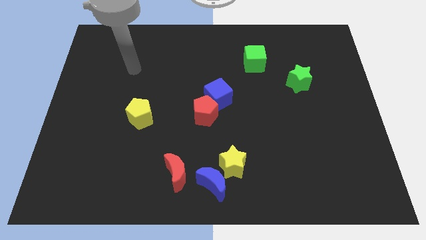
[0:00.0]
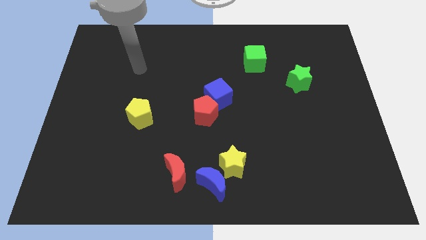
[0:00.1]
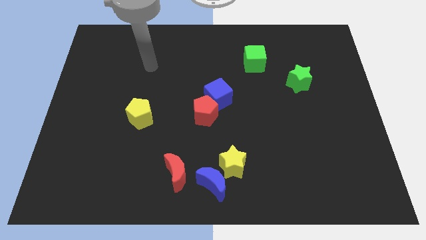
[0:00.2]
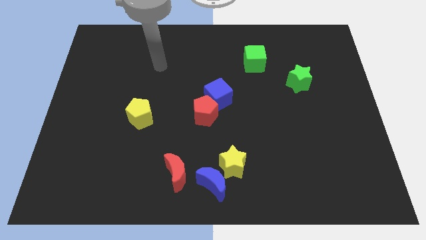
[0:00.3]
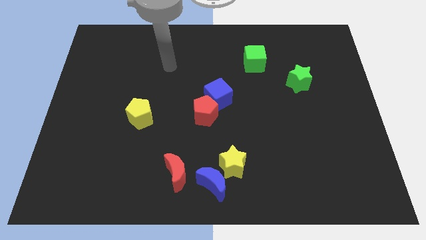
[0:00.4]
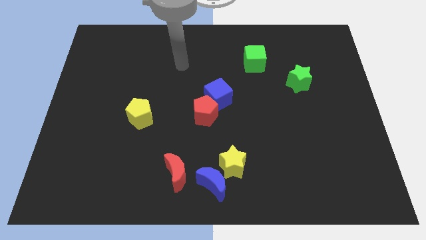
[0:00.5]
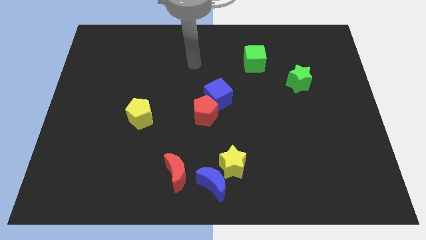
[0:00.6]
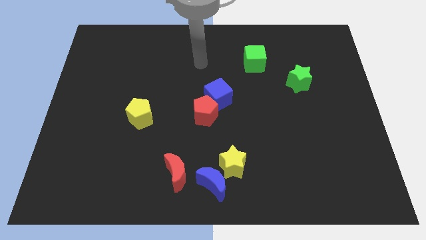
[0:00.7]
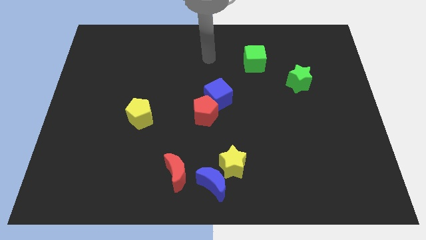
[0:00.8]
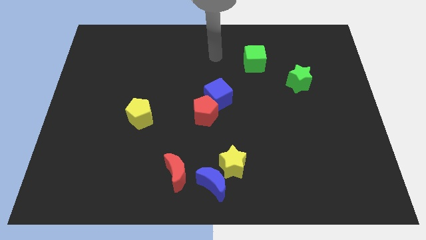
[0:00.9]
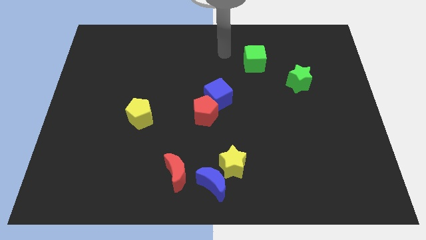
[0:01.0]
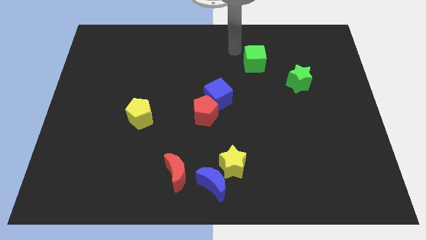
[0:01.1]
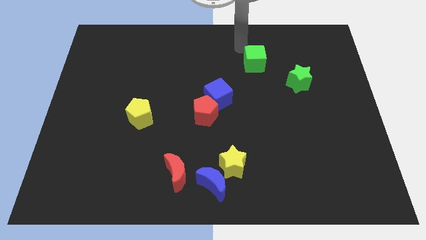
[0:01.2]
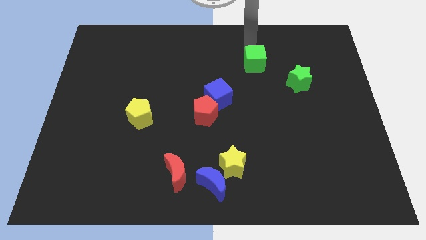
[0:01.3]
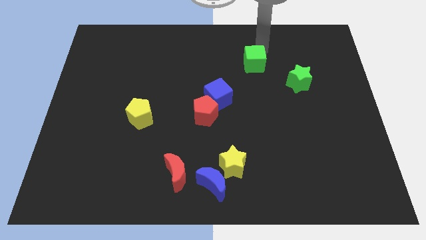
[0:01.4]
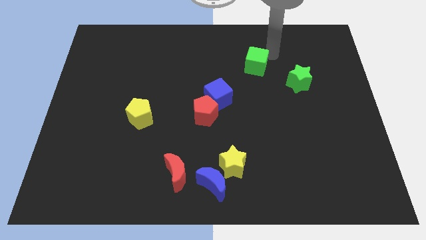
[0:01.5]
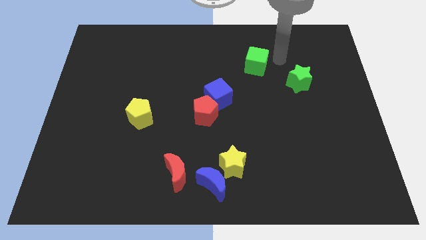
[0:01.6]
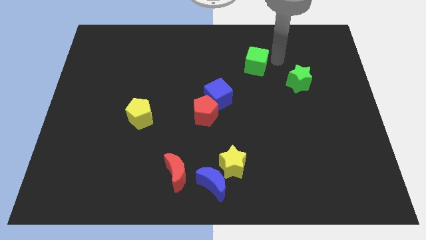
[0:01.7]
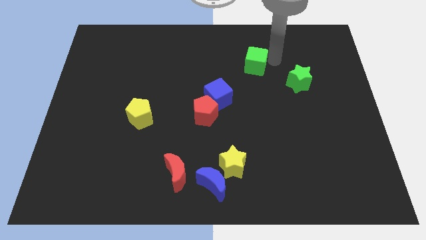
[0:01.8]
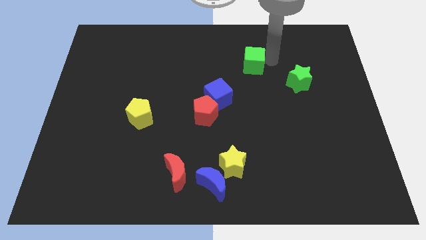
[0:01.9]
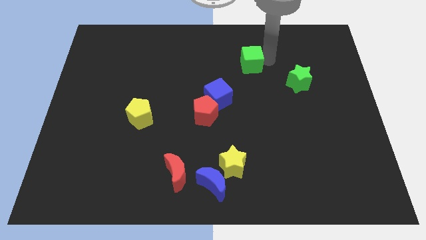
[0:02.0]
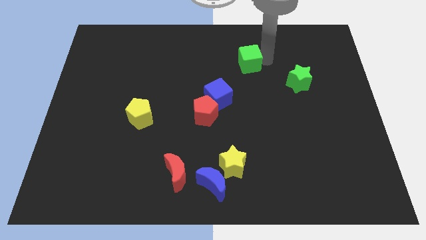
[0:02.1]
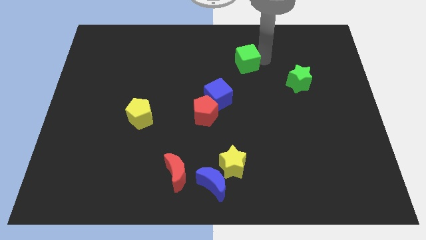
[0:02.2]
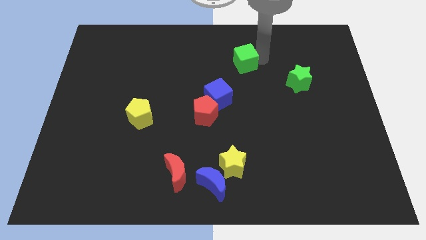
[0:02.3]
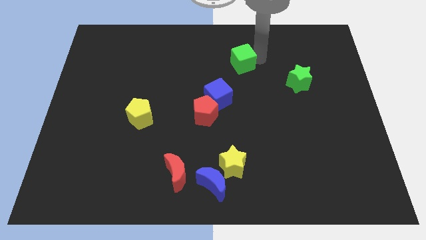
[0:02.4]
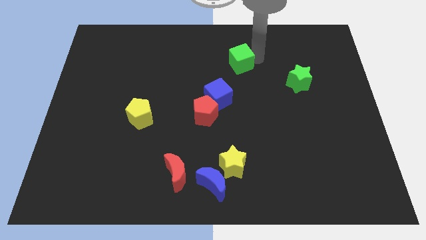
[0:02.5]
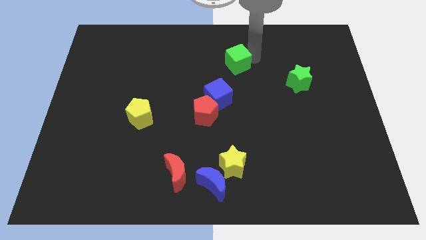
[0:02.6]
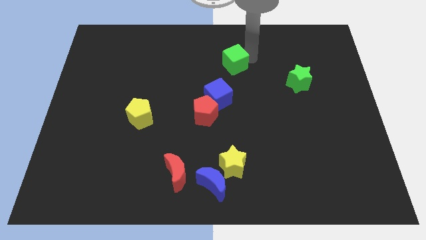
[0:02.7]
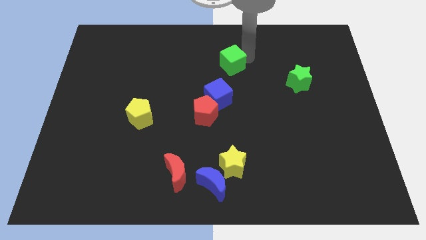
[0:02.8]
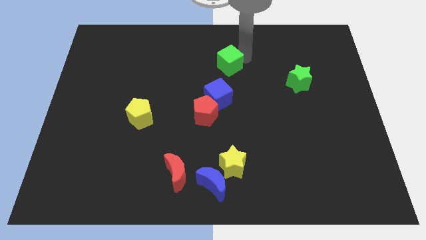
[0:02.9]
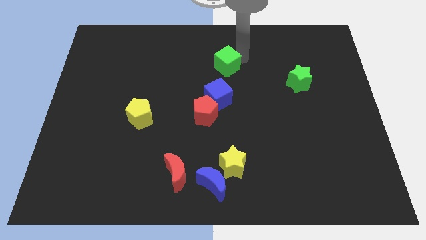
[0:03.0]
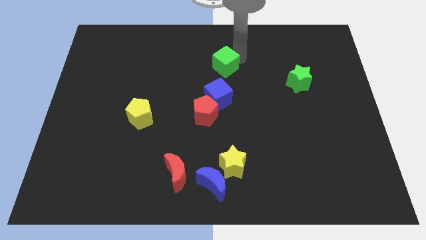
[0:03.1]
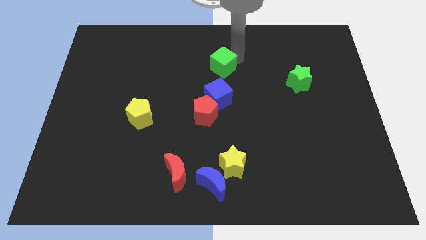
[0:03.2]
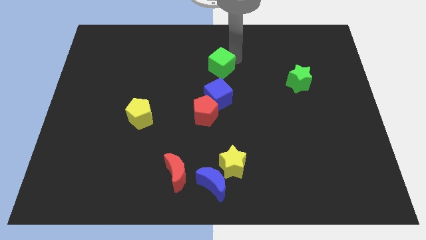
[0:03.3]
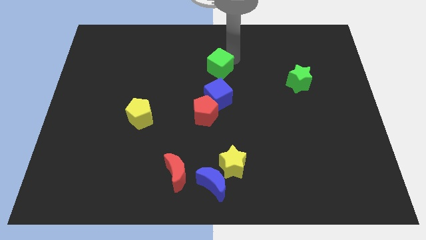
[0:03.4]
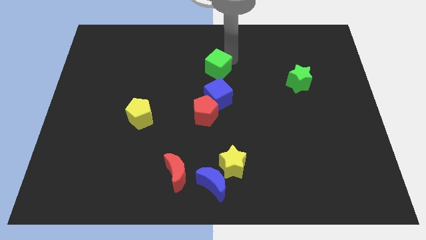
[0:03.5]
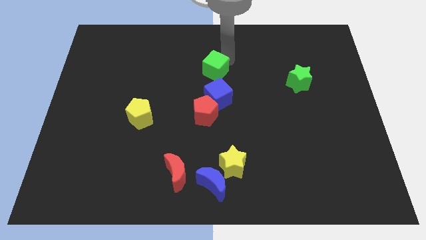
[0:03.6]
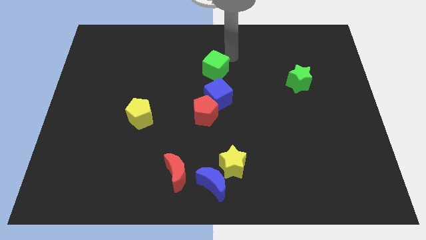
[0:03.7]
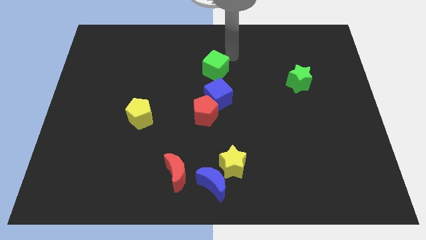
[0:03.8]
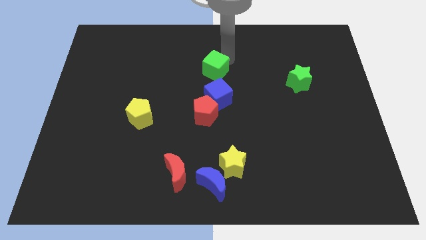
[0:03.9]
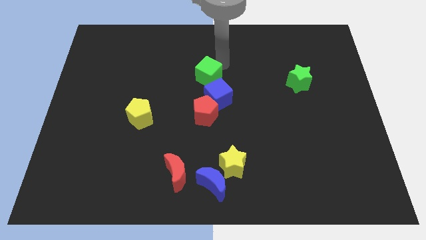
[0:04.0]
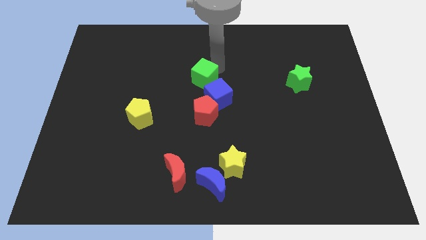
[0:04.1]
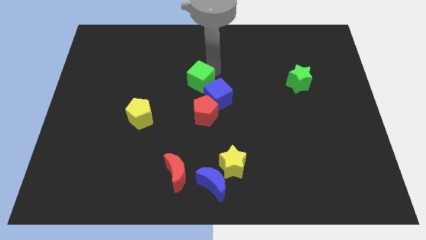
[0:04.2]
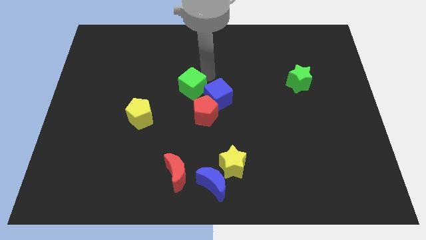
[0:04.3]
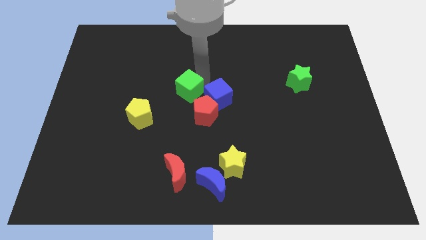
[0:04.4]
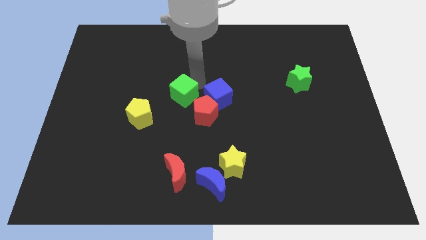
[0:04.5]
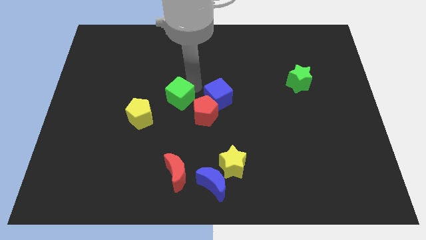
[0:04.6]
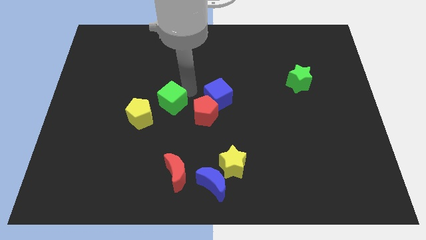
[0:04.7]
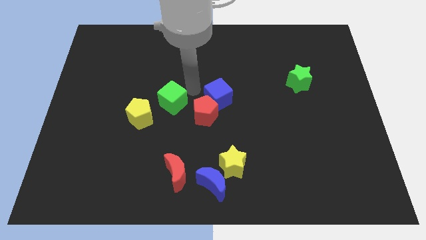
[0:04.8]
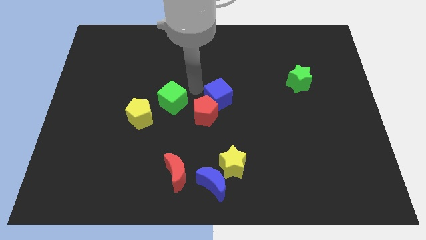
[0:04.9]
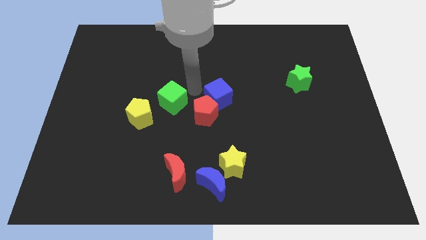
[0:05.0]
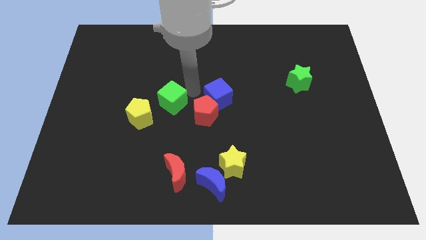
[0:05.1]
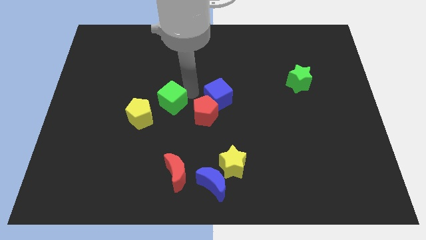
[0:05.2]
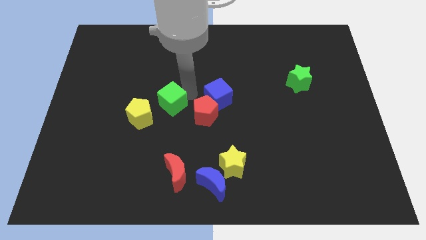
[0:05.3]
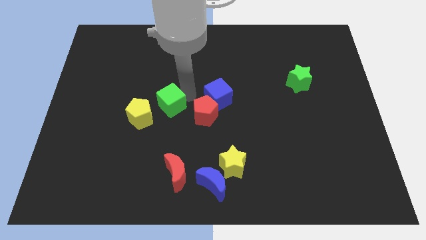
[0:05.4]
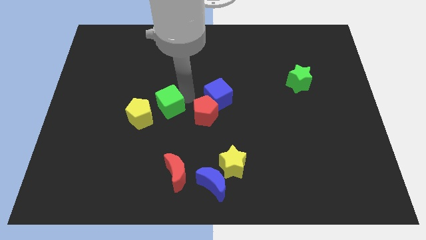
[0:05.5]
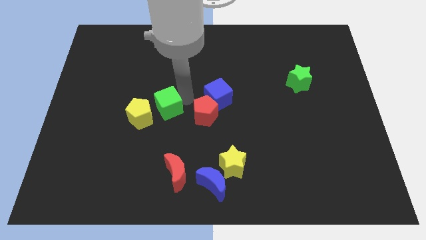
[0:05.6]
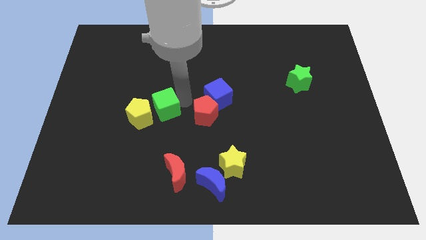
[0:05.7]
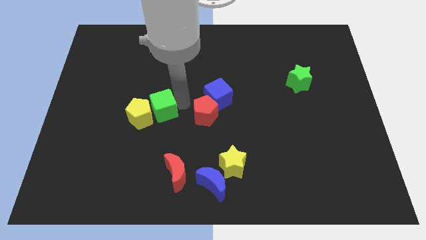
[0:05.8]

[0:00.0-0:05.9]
push the green cube to the yellow pentagon

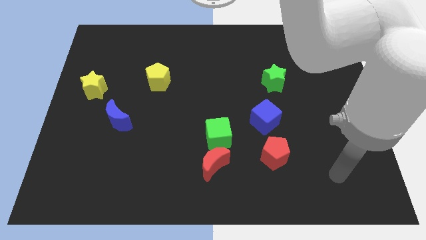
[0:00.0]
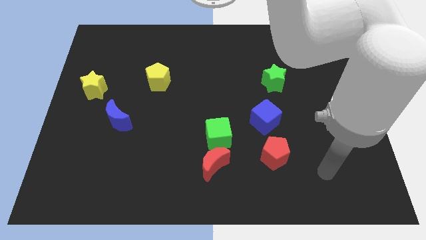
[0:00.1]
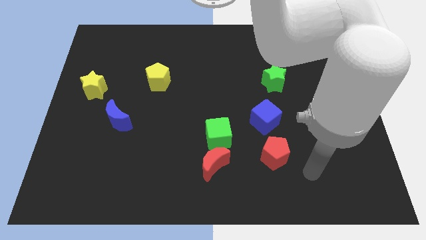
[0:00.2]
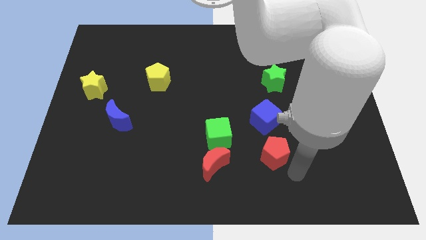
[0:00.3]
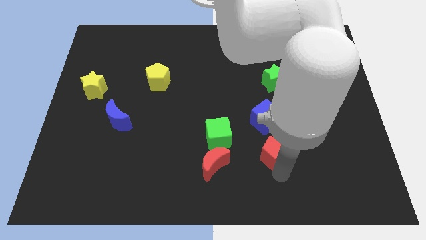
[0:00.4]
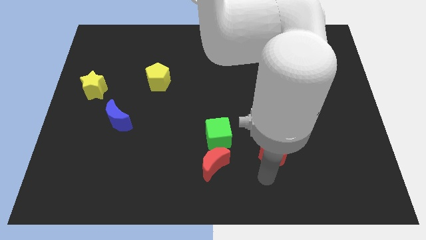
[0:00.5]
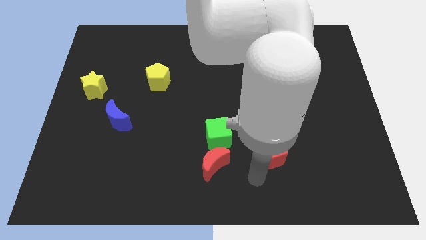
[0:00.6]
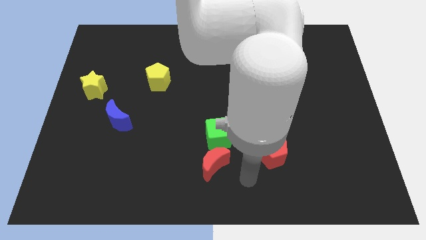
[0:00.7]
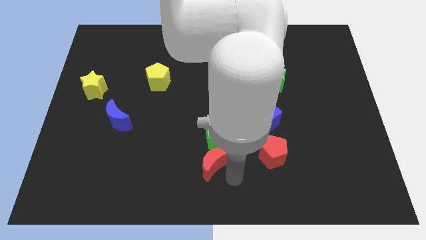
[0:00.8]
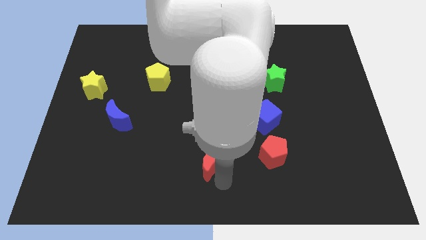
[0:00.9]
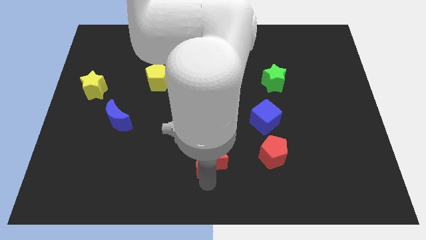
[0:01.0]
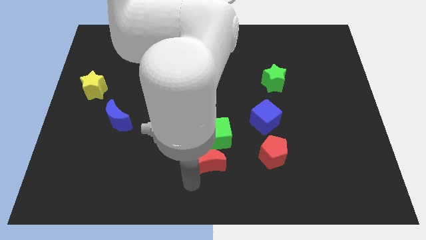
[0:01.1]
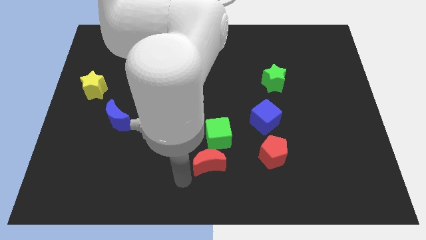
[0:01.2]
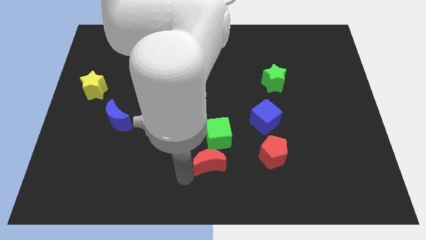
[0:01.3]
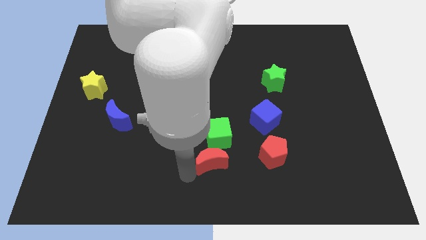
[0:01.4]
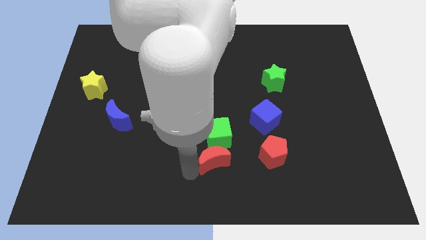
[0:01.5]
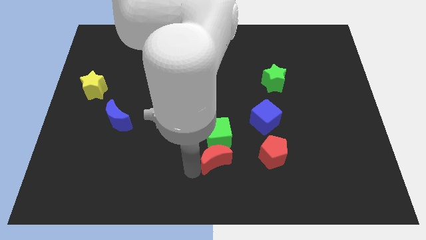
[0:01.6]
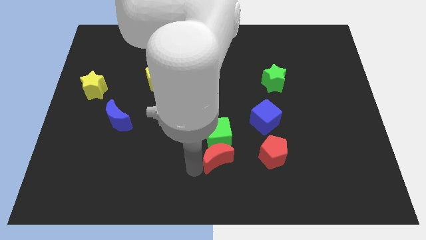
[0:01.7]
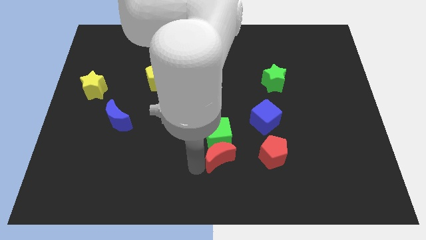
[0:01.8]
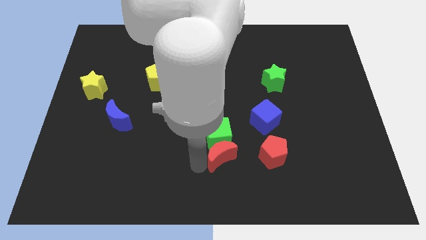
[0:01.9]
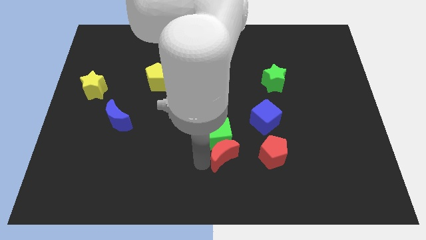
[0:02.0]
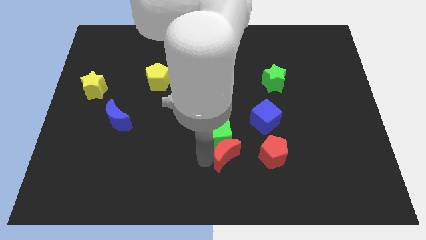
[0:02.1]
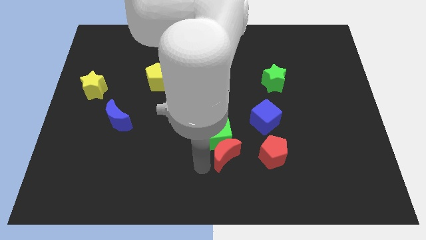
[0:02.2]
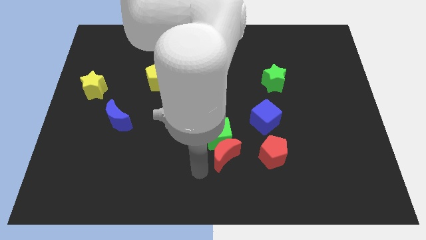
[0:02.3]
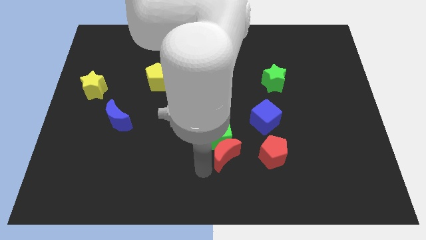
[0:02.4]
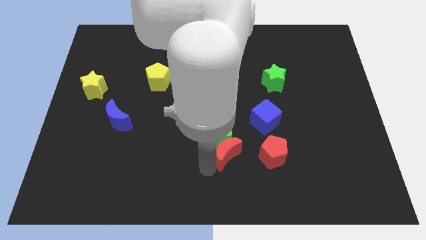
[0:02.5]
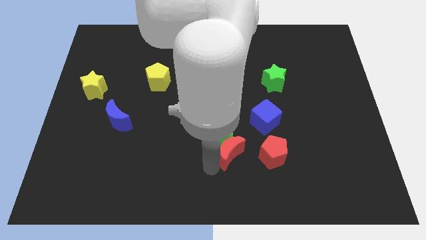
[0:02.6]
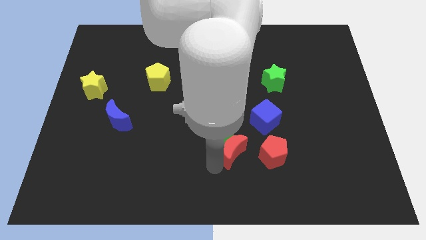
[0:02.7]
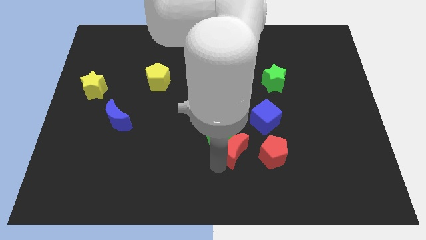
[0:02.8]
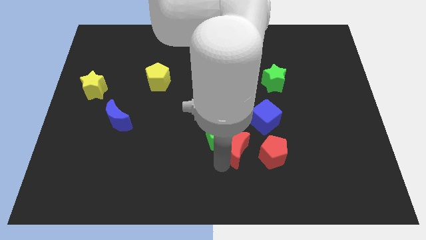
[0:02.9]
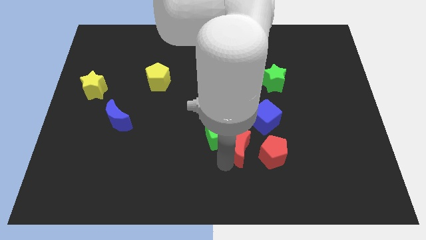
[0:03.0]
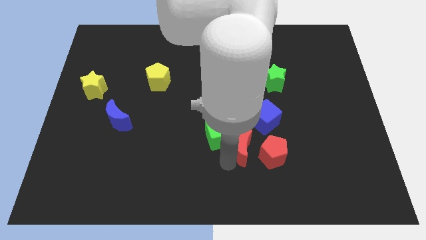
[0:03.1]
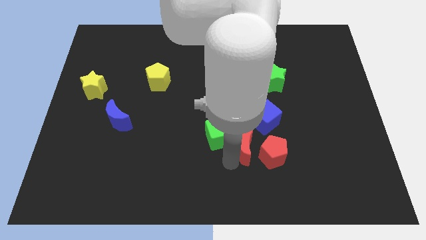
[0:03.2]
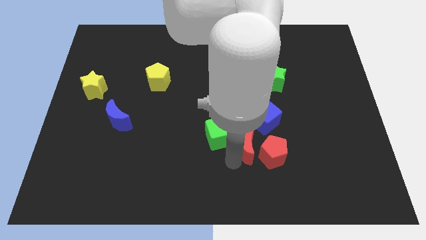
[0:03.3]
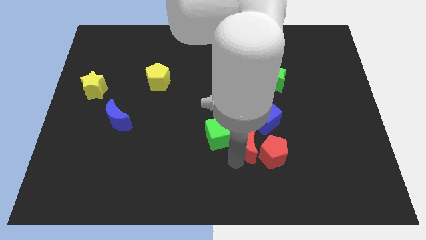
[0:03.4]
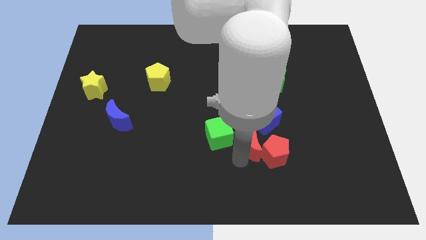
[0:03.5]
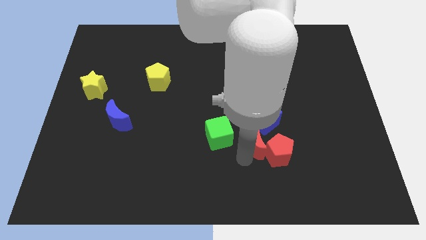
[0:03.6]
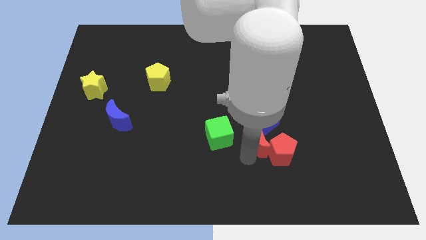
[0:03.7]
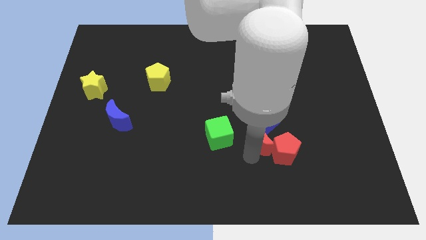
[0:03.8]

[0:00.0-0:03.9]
put the red moon towards the blue cube
